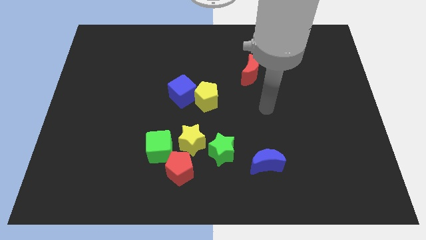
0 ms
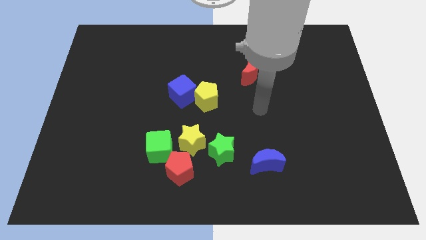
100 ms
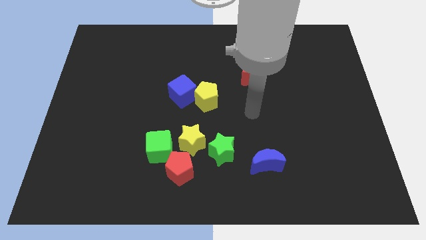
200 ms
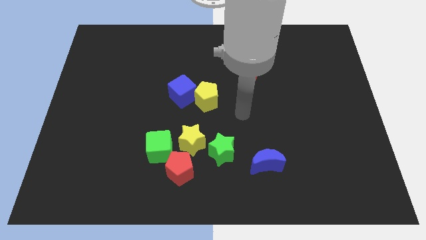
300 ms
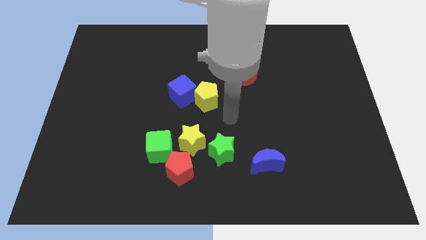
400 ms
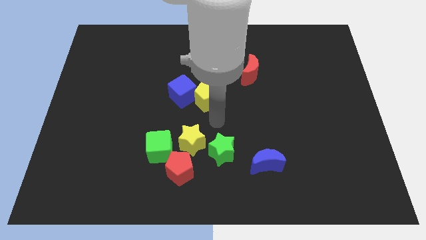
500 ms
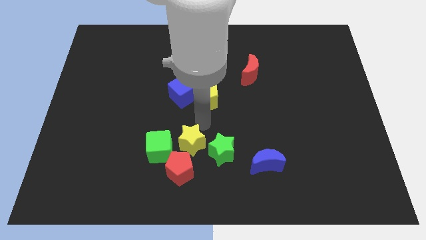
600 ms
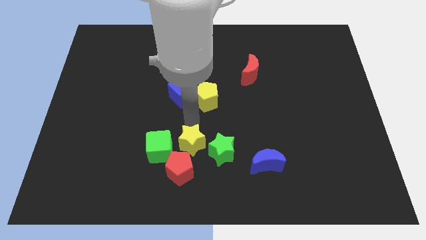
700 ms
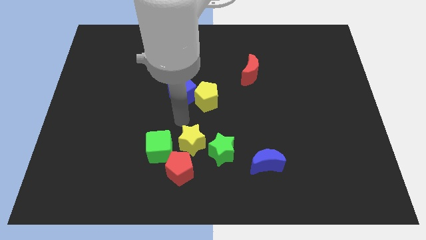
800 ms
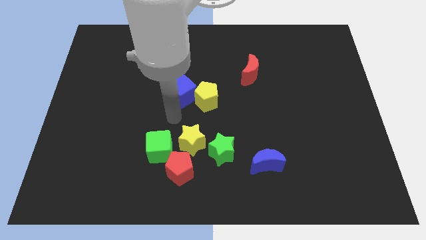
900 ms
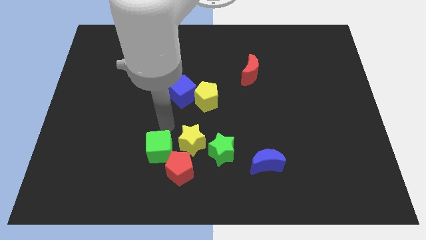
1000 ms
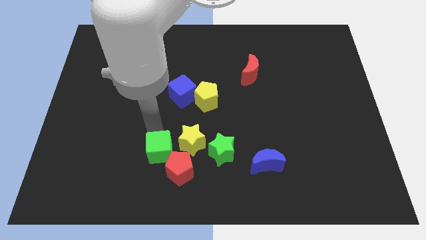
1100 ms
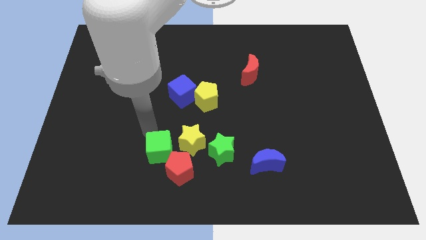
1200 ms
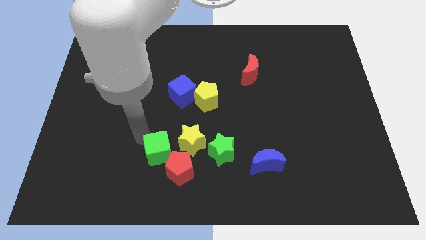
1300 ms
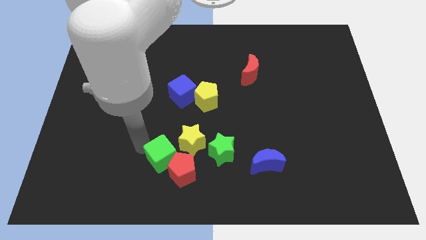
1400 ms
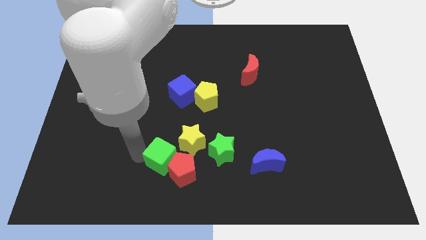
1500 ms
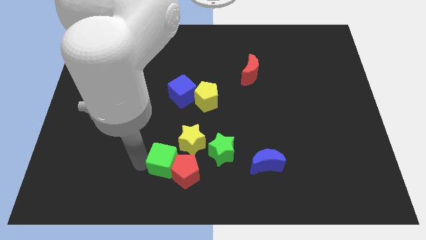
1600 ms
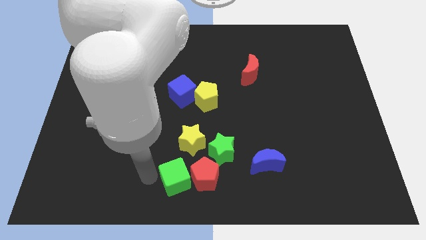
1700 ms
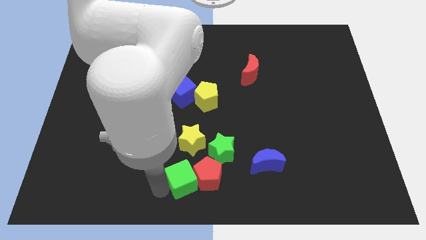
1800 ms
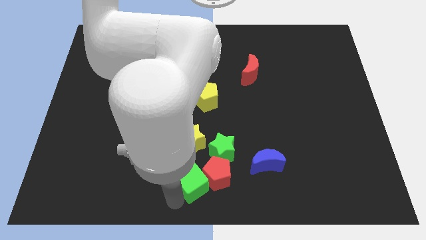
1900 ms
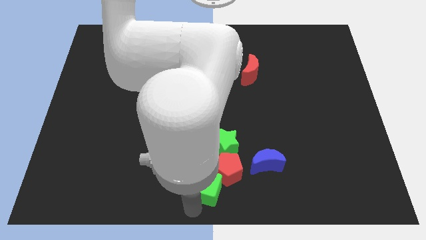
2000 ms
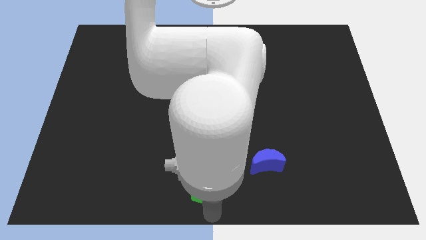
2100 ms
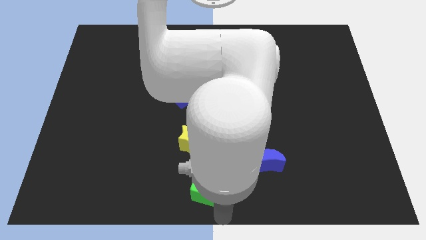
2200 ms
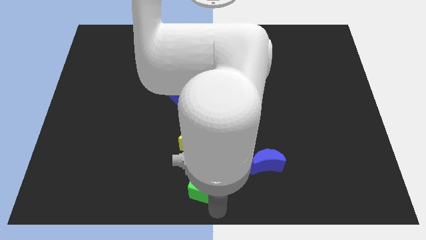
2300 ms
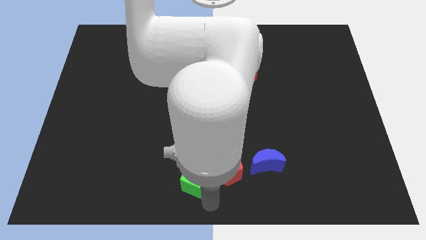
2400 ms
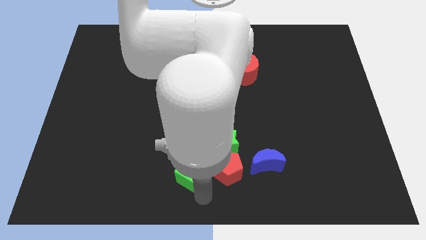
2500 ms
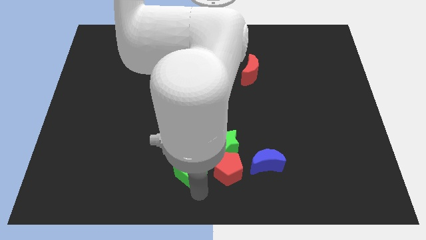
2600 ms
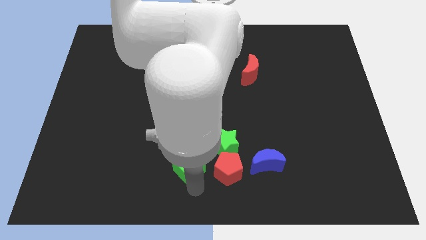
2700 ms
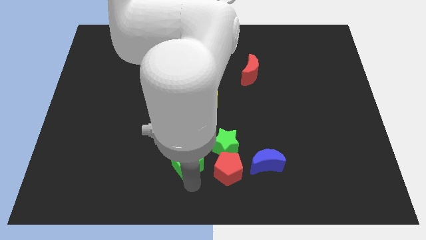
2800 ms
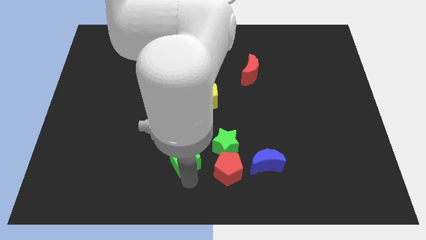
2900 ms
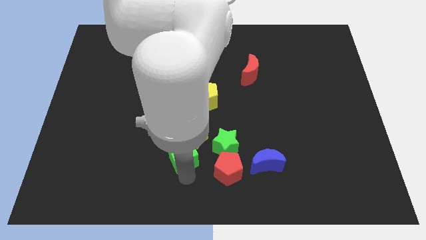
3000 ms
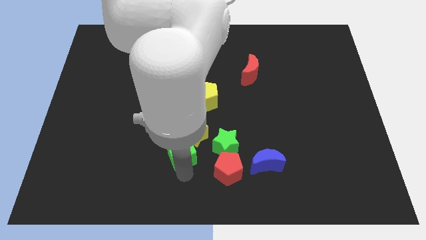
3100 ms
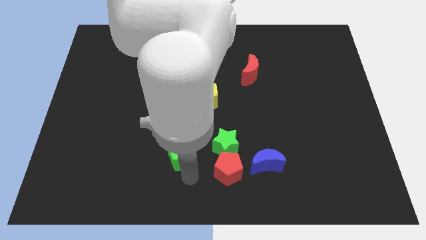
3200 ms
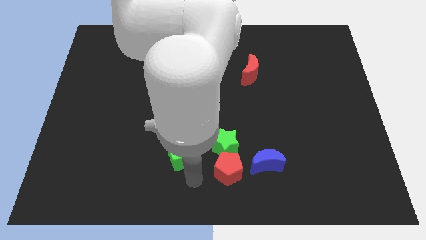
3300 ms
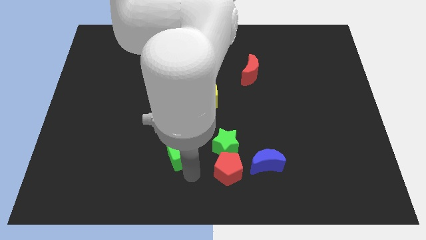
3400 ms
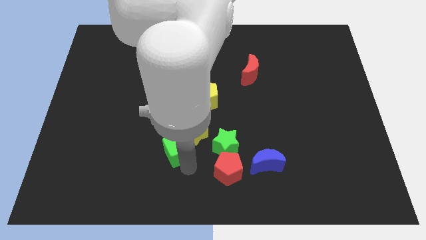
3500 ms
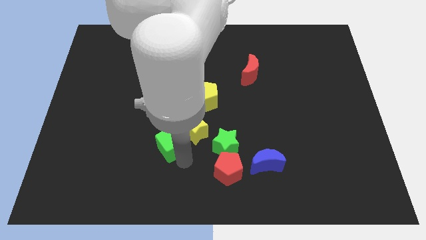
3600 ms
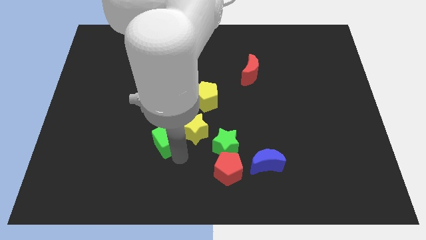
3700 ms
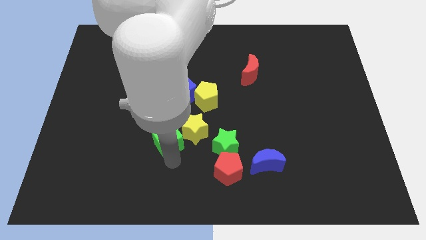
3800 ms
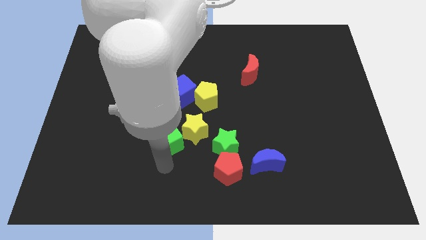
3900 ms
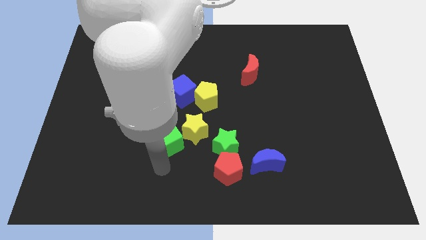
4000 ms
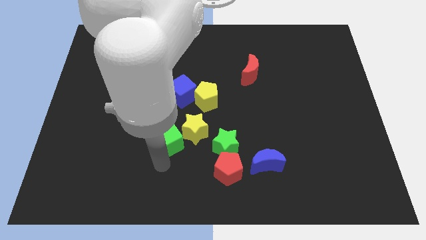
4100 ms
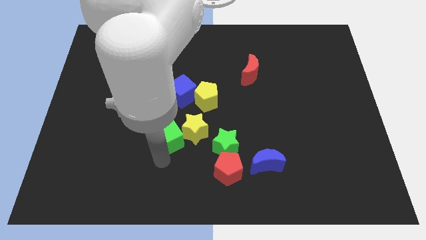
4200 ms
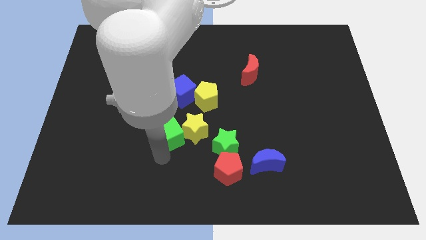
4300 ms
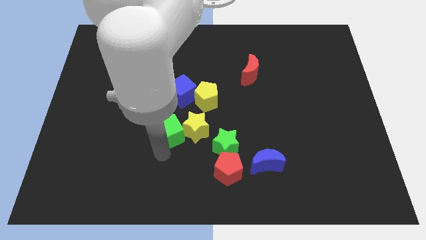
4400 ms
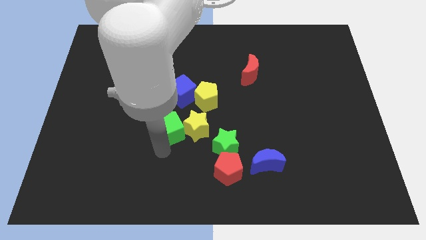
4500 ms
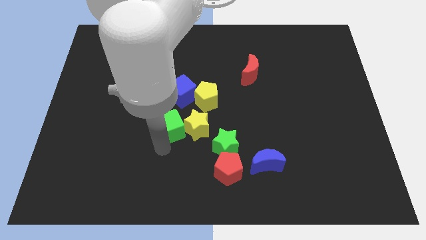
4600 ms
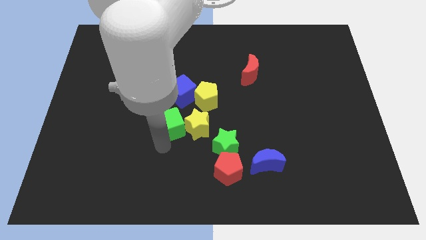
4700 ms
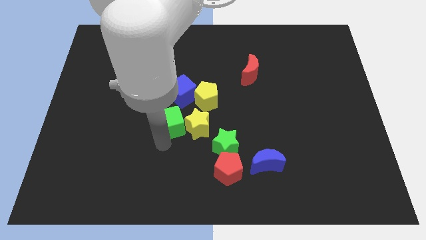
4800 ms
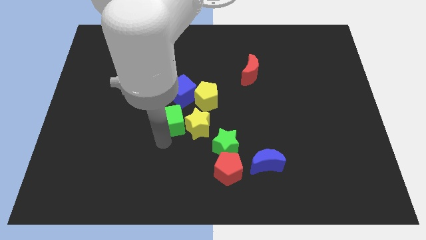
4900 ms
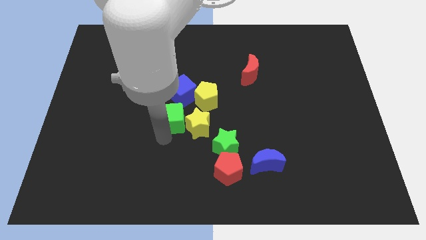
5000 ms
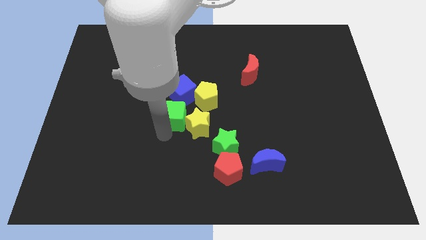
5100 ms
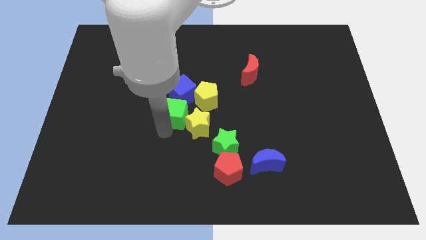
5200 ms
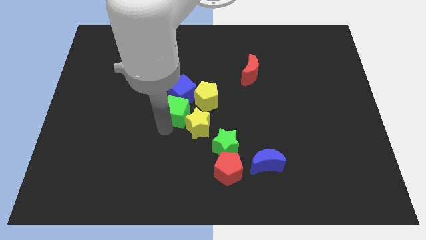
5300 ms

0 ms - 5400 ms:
push the green cube next to the blue cube

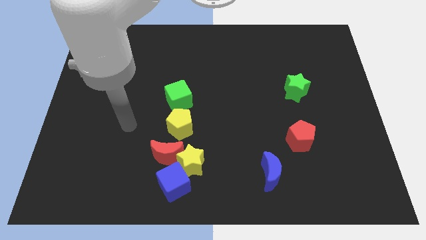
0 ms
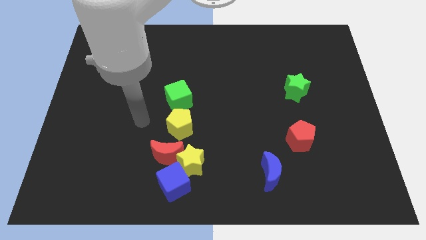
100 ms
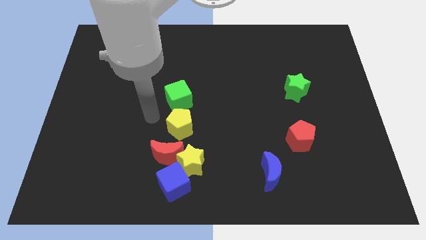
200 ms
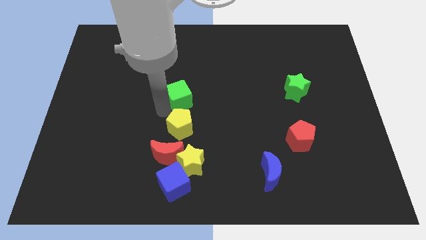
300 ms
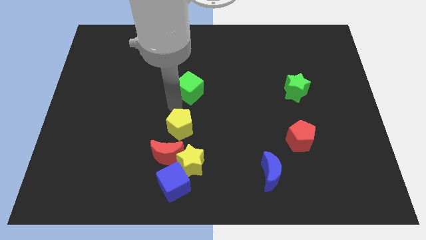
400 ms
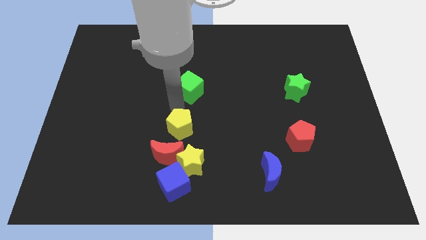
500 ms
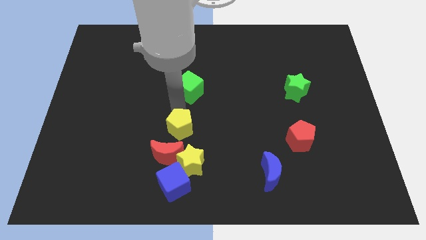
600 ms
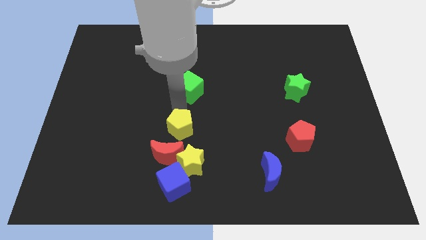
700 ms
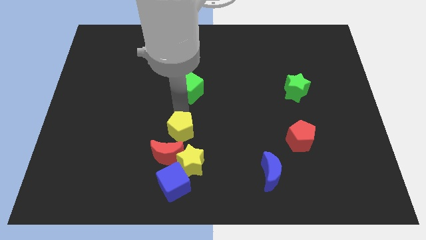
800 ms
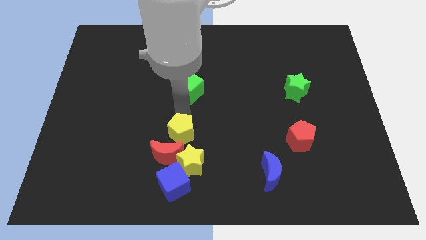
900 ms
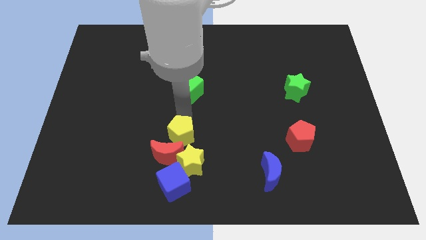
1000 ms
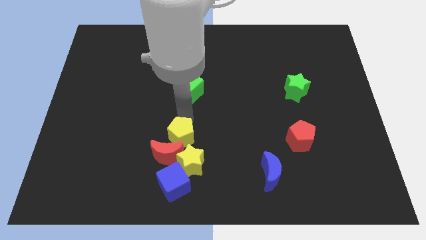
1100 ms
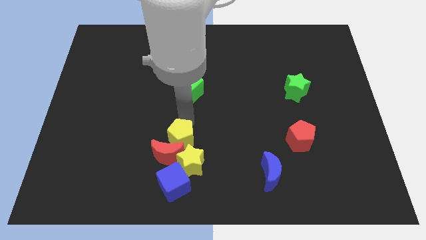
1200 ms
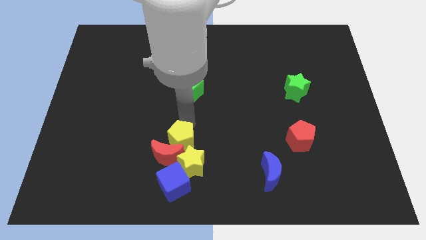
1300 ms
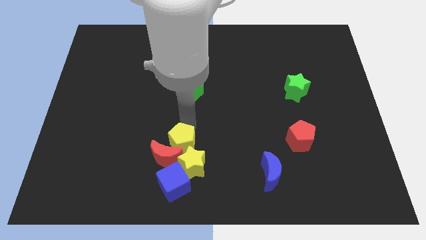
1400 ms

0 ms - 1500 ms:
put the yellow pentagon to the yellow star
